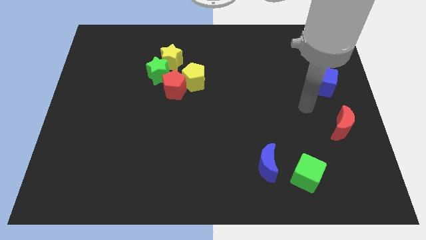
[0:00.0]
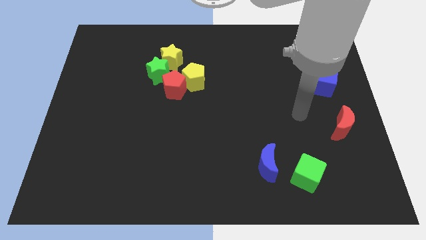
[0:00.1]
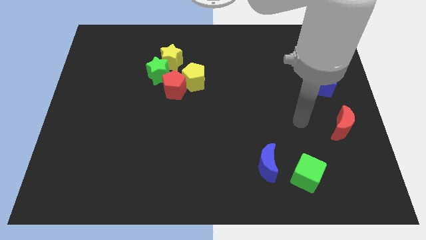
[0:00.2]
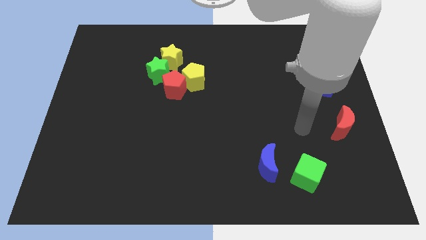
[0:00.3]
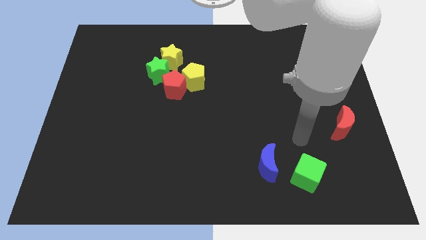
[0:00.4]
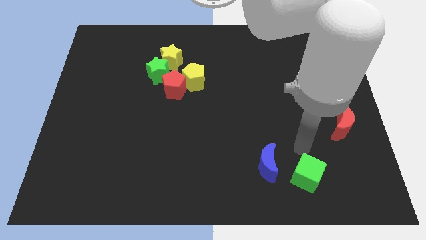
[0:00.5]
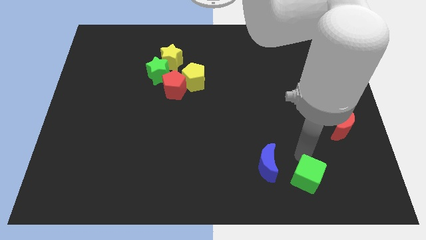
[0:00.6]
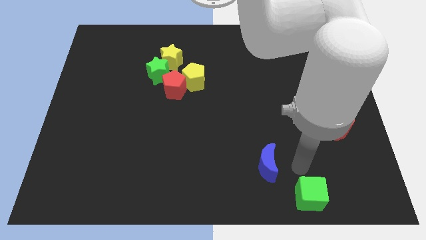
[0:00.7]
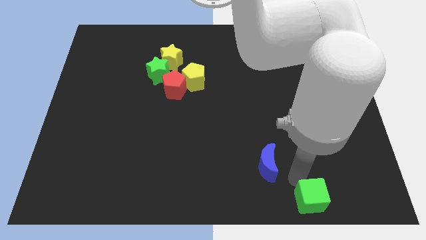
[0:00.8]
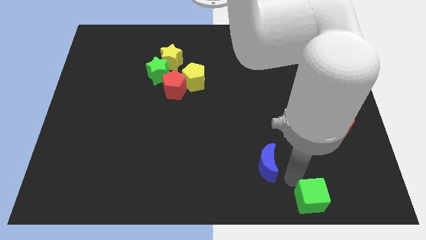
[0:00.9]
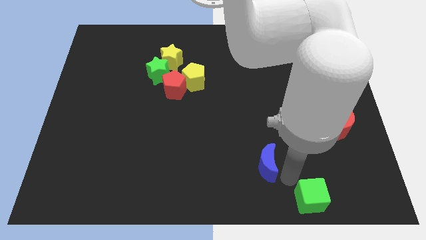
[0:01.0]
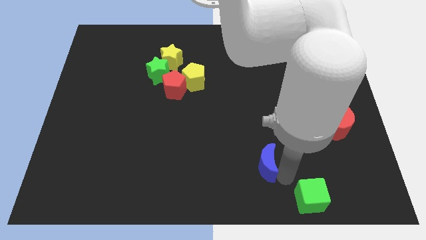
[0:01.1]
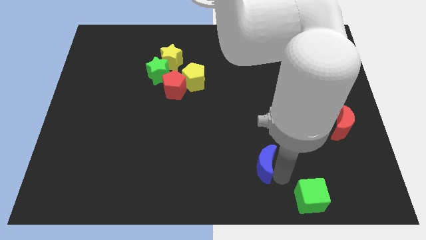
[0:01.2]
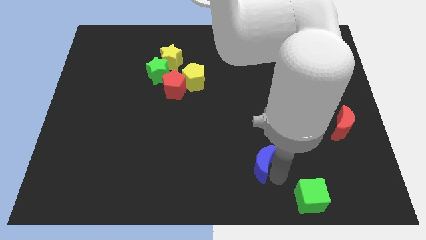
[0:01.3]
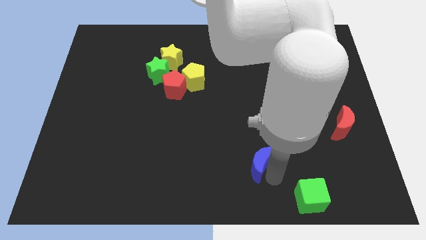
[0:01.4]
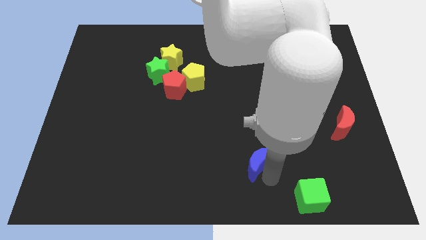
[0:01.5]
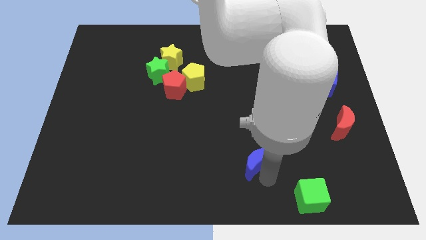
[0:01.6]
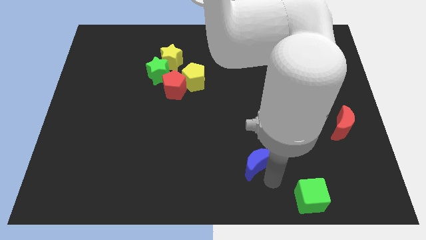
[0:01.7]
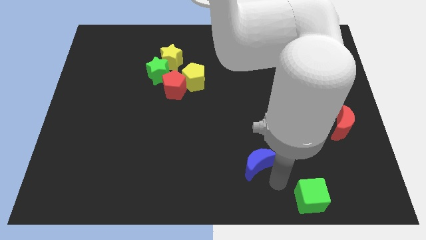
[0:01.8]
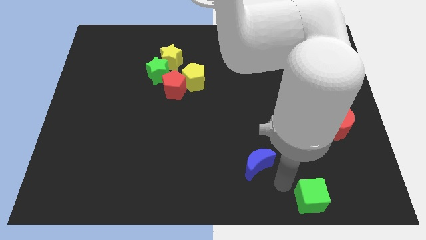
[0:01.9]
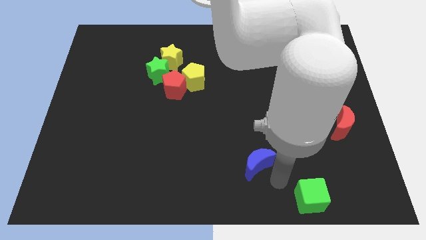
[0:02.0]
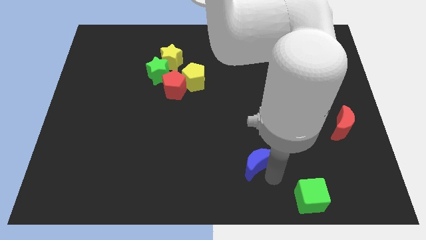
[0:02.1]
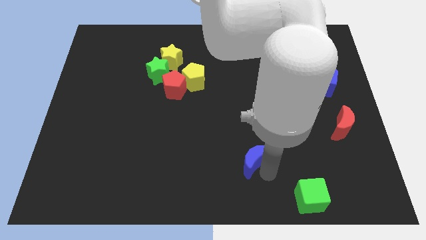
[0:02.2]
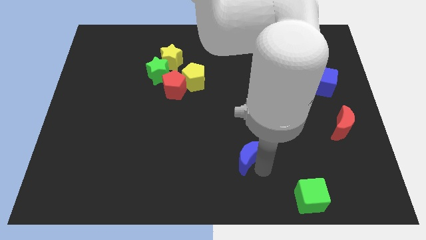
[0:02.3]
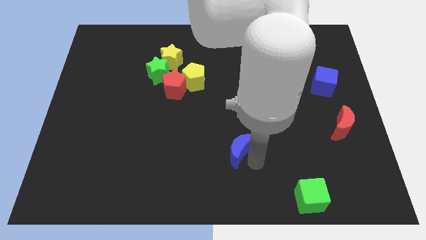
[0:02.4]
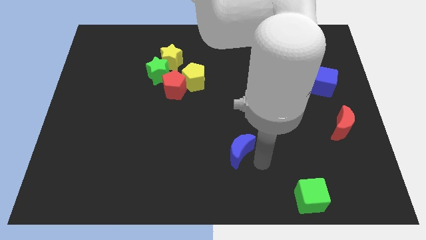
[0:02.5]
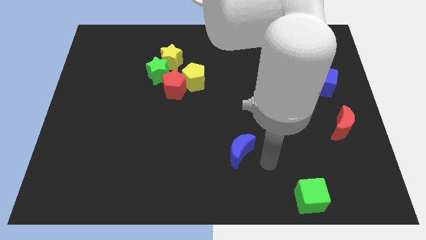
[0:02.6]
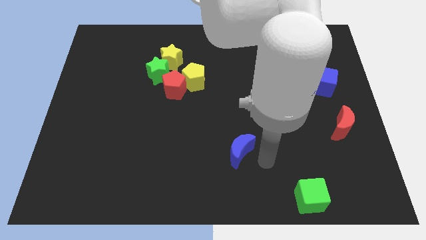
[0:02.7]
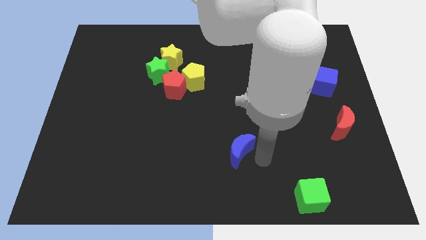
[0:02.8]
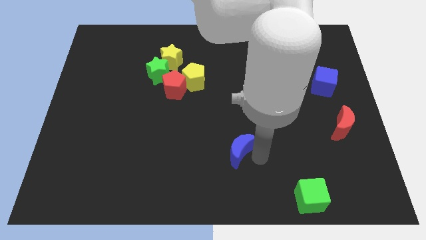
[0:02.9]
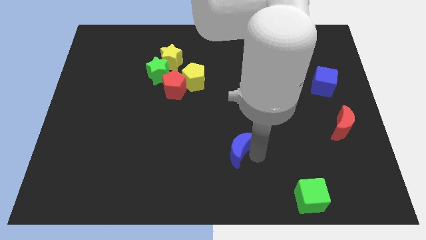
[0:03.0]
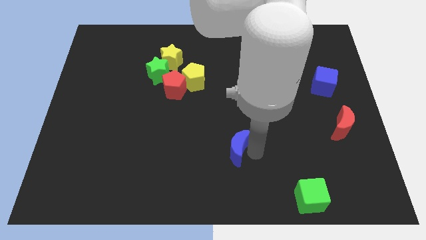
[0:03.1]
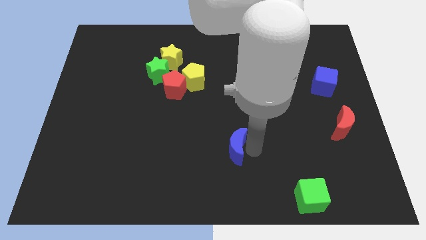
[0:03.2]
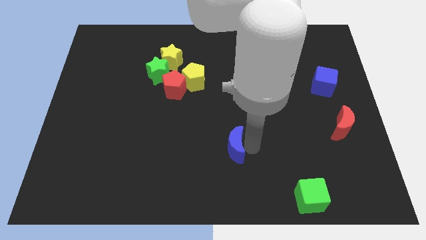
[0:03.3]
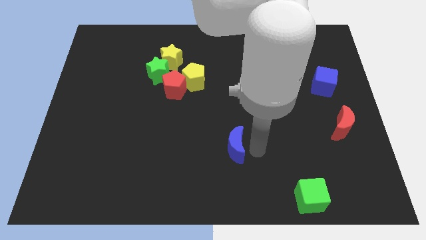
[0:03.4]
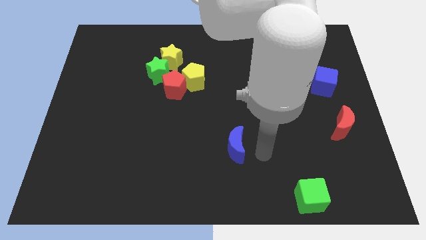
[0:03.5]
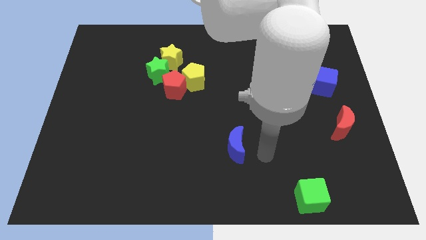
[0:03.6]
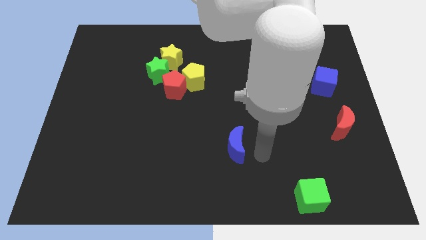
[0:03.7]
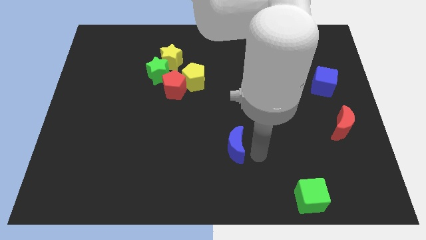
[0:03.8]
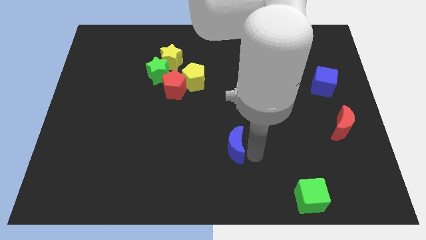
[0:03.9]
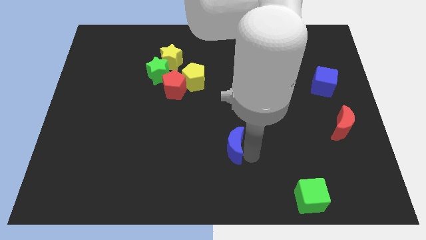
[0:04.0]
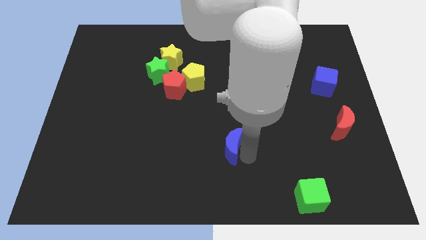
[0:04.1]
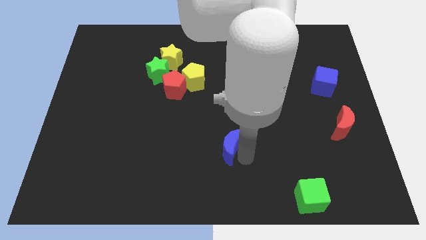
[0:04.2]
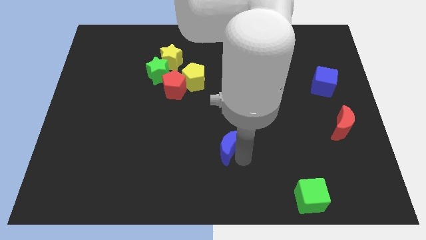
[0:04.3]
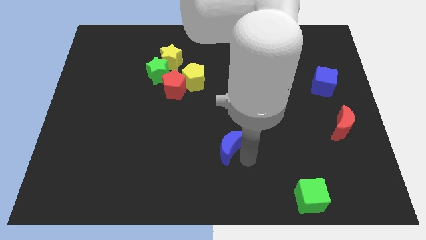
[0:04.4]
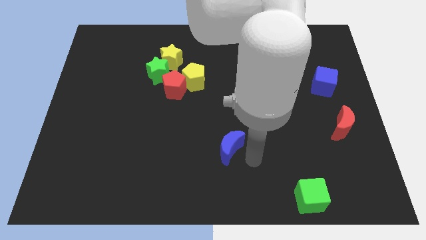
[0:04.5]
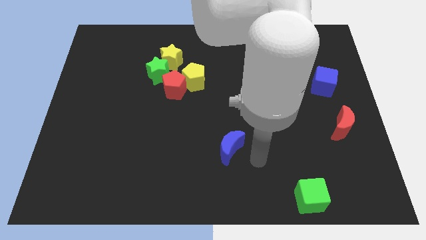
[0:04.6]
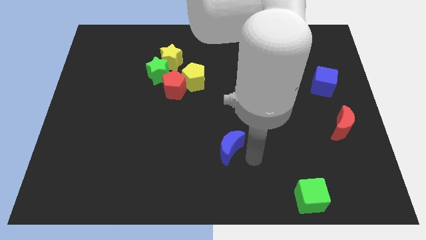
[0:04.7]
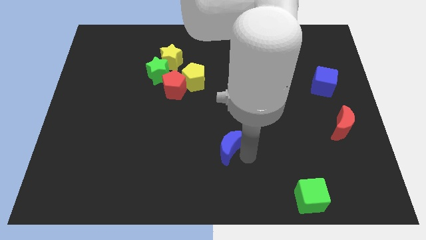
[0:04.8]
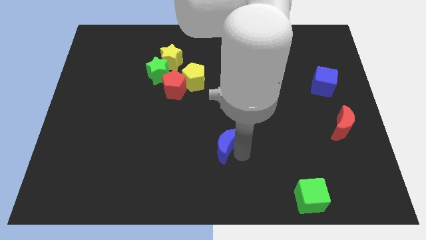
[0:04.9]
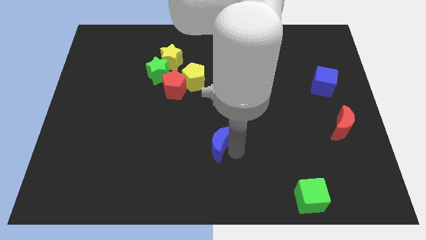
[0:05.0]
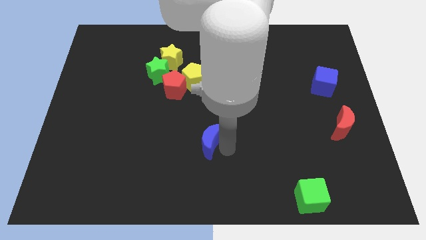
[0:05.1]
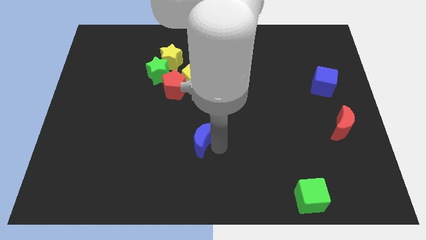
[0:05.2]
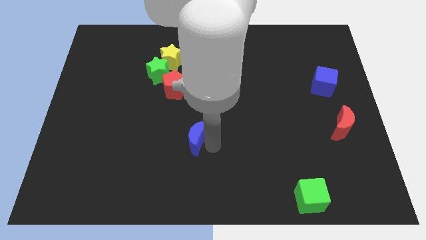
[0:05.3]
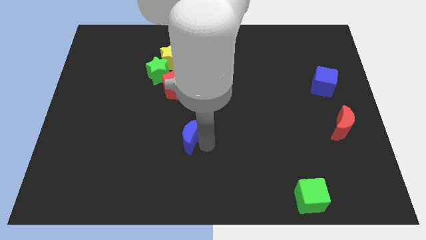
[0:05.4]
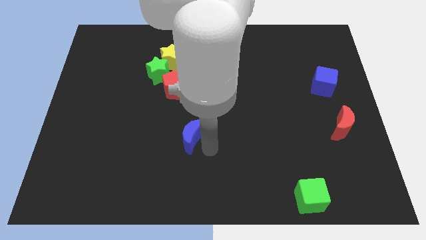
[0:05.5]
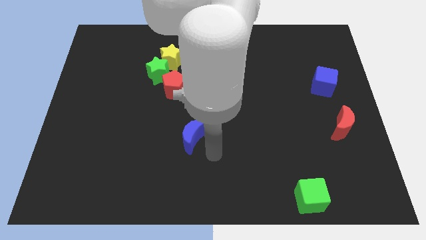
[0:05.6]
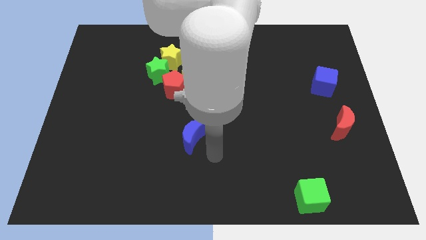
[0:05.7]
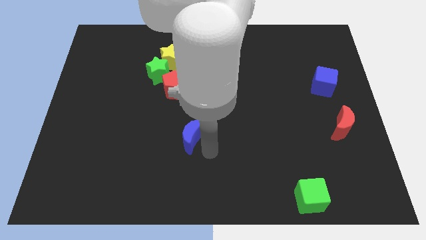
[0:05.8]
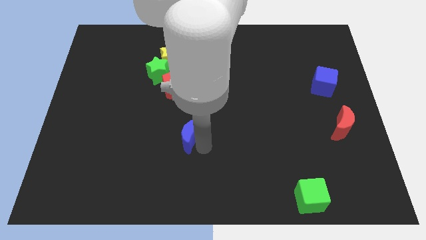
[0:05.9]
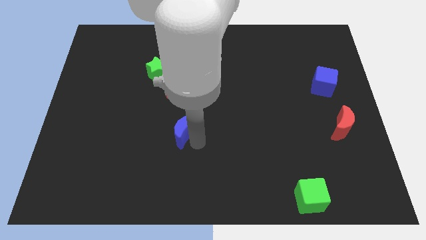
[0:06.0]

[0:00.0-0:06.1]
slide the blue moon below the red pentagon

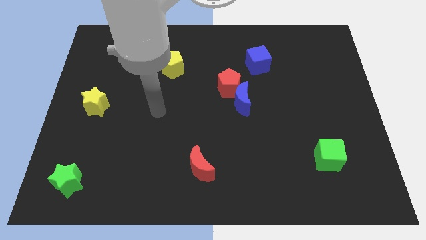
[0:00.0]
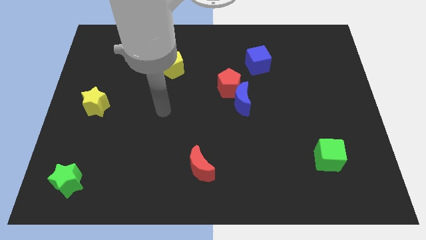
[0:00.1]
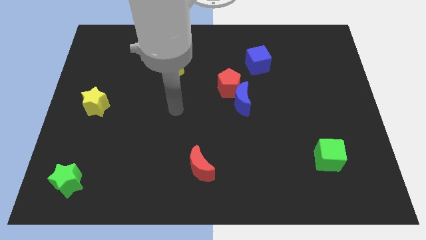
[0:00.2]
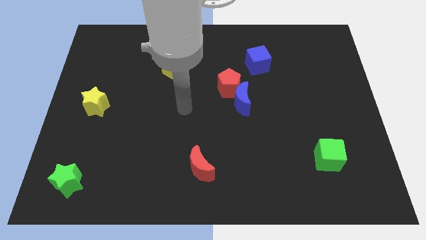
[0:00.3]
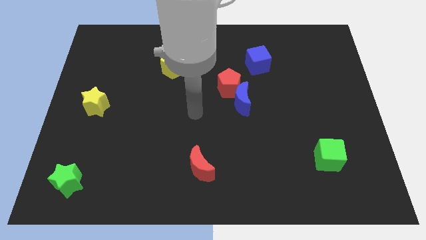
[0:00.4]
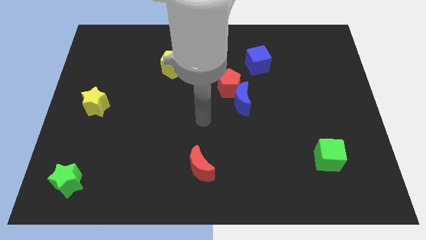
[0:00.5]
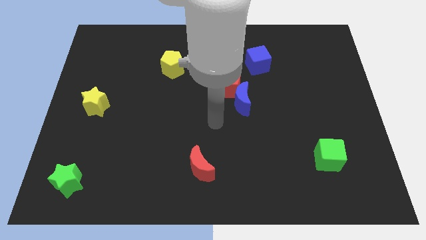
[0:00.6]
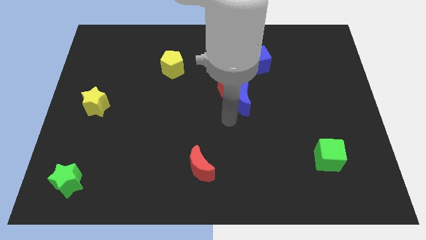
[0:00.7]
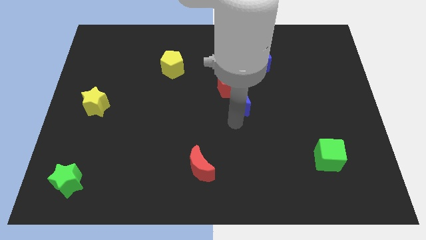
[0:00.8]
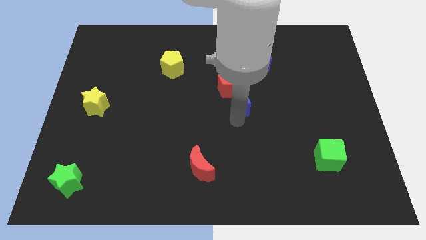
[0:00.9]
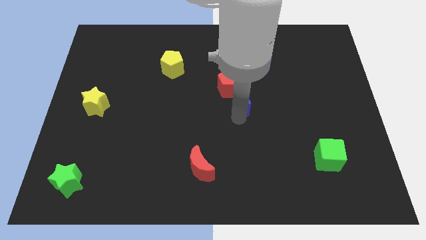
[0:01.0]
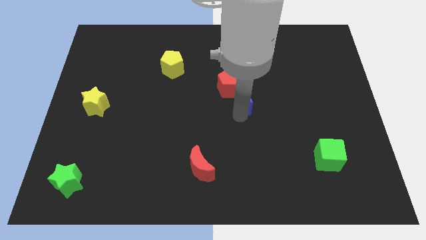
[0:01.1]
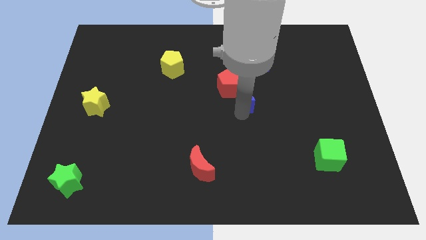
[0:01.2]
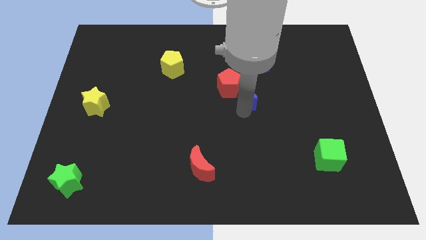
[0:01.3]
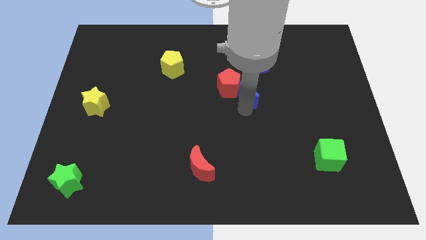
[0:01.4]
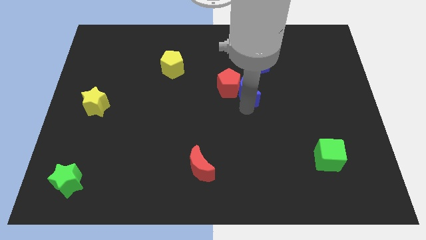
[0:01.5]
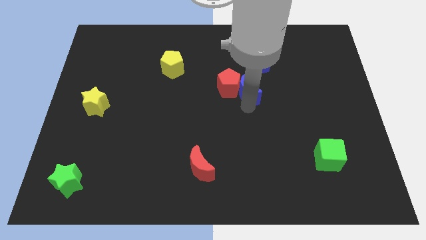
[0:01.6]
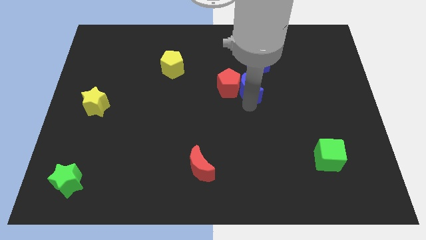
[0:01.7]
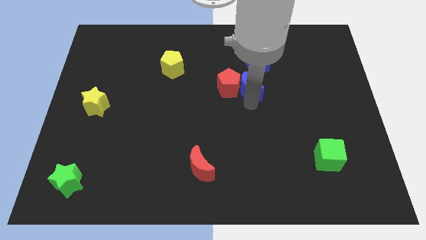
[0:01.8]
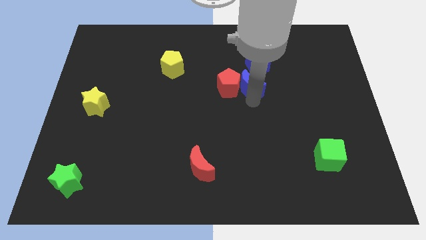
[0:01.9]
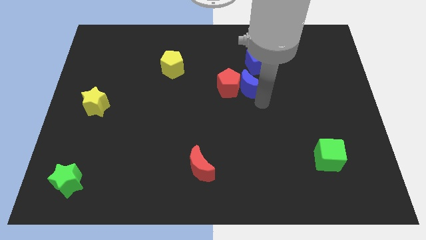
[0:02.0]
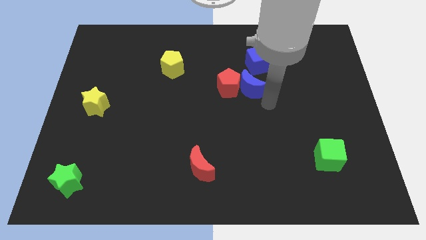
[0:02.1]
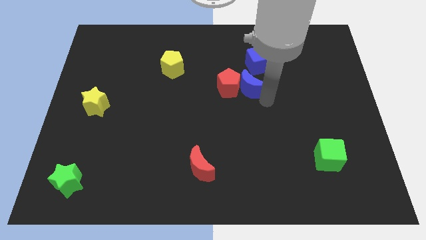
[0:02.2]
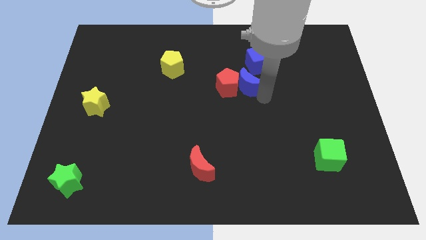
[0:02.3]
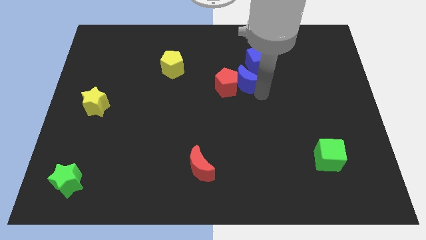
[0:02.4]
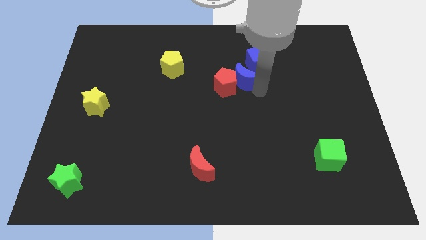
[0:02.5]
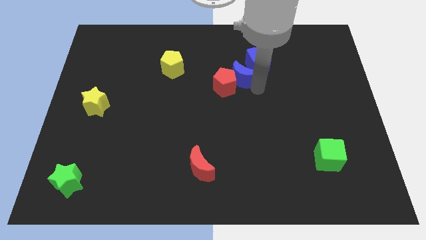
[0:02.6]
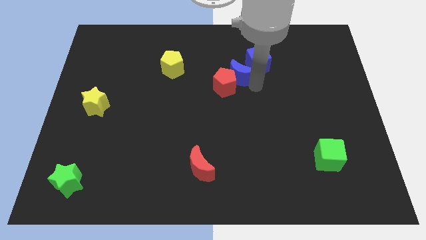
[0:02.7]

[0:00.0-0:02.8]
push the blue moon left of the blue cube
